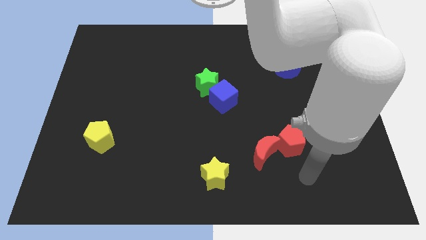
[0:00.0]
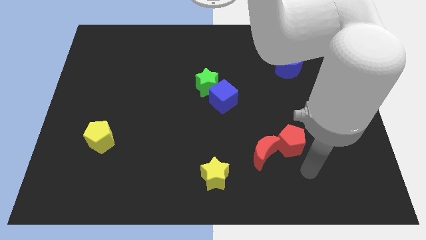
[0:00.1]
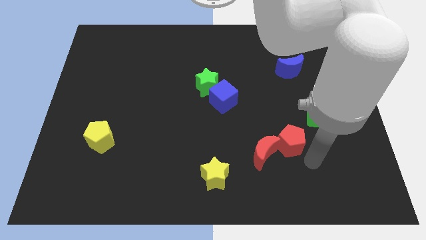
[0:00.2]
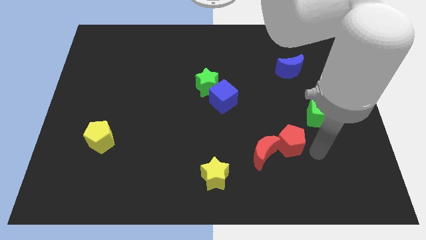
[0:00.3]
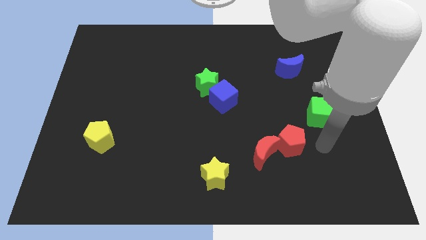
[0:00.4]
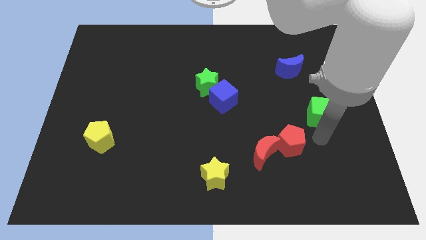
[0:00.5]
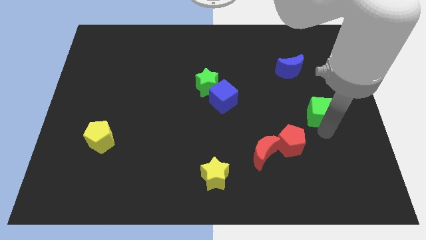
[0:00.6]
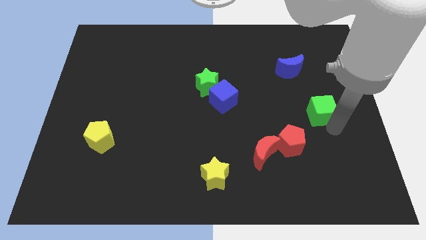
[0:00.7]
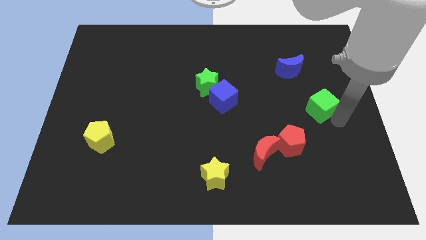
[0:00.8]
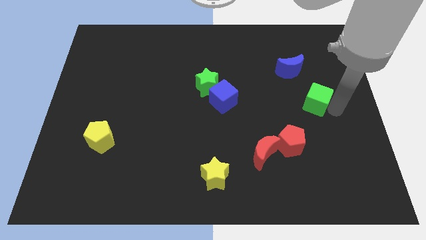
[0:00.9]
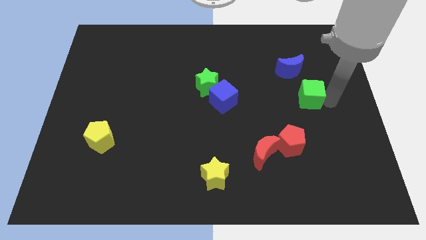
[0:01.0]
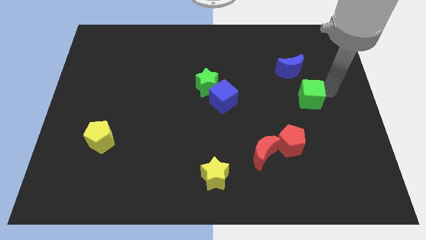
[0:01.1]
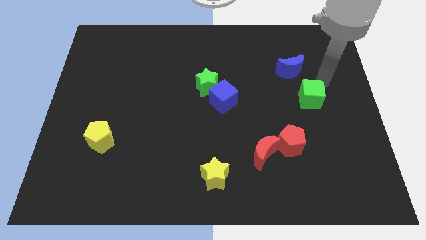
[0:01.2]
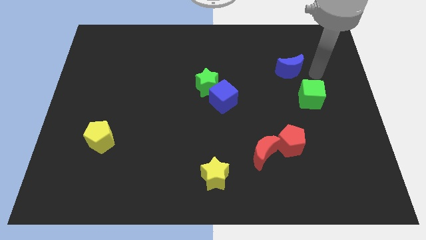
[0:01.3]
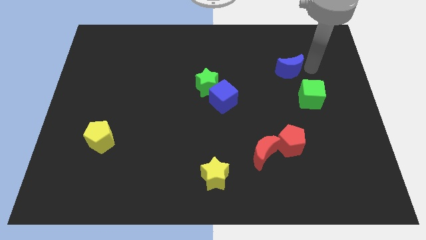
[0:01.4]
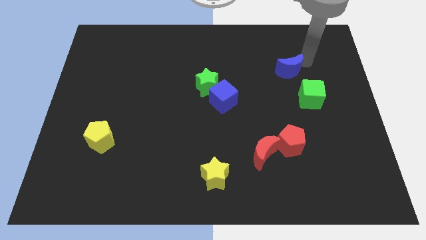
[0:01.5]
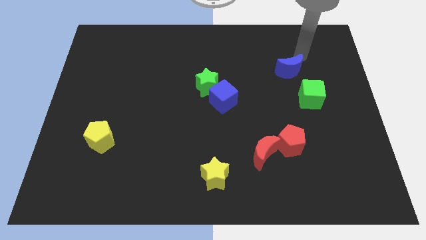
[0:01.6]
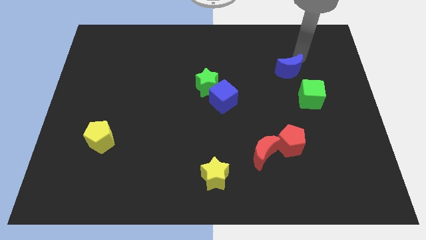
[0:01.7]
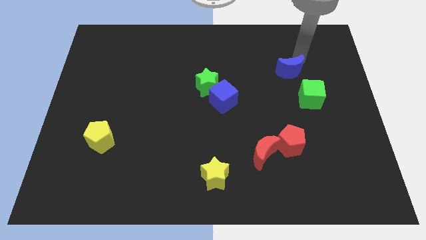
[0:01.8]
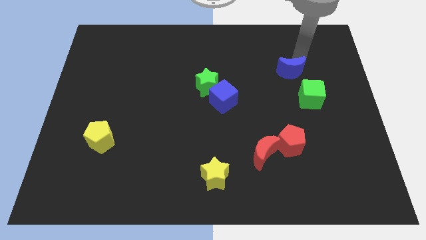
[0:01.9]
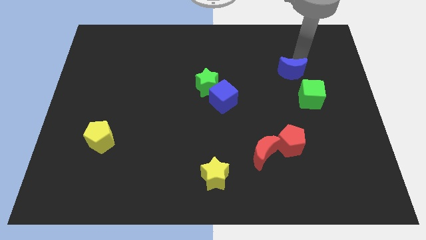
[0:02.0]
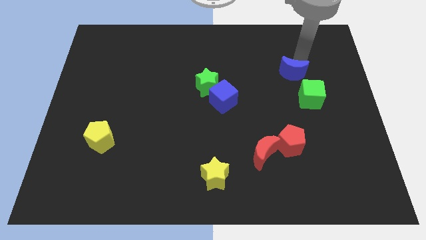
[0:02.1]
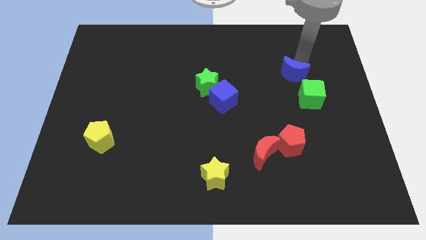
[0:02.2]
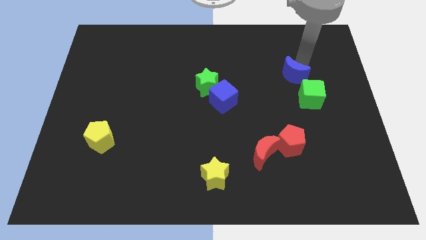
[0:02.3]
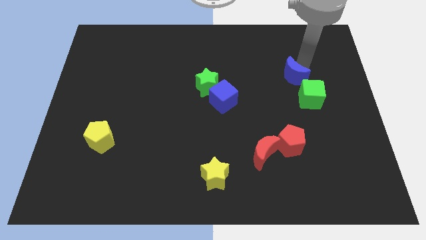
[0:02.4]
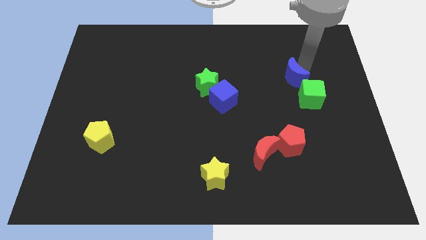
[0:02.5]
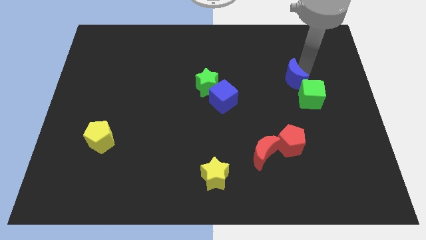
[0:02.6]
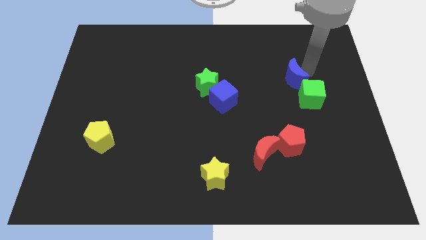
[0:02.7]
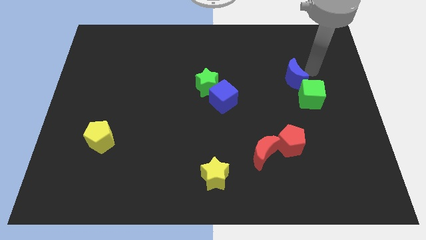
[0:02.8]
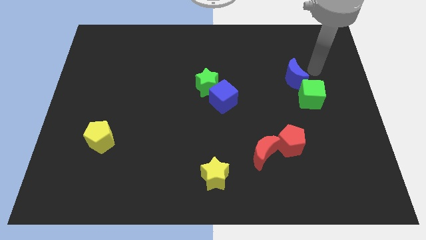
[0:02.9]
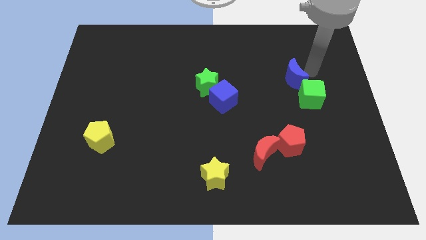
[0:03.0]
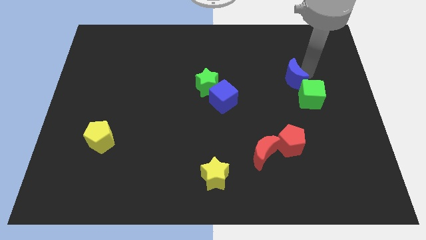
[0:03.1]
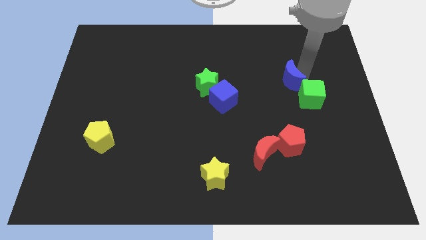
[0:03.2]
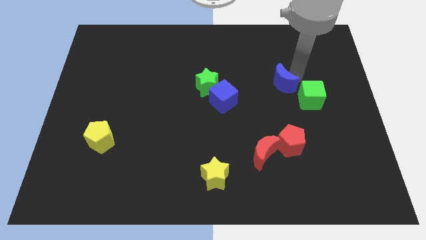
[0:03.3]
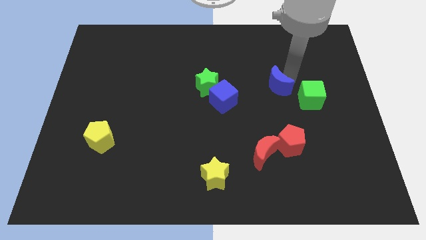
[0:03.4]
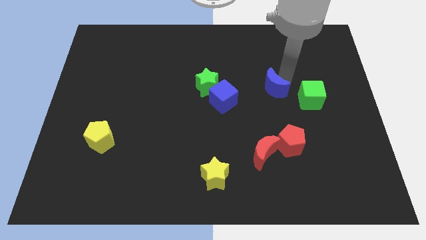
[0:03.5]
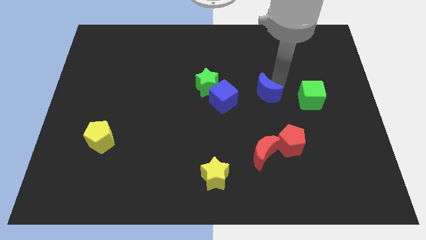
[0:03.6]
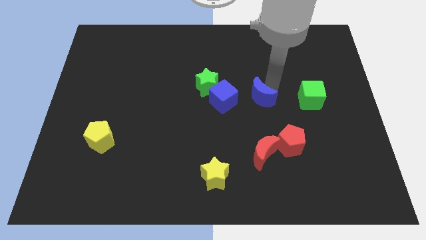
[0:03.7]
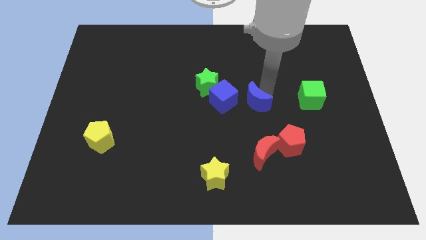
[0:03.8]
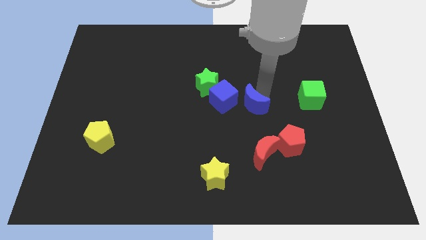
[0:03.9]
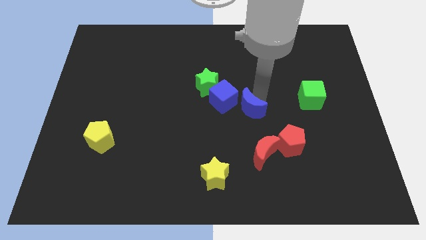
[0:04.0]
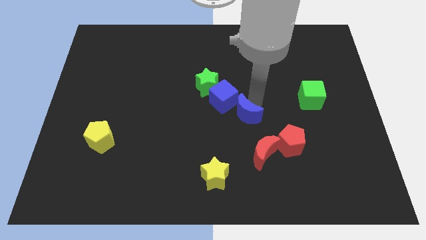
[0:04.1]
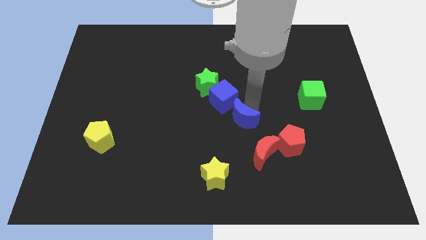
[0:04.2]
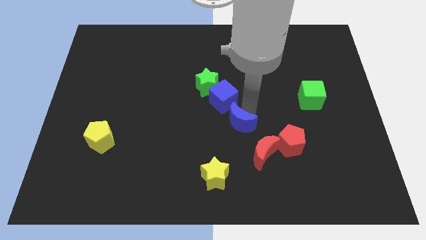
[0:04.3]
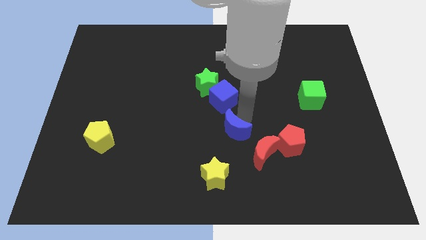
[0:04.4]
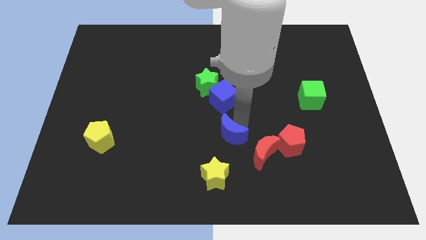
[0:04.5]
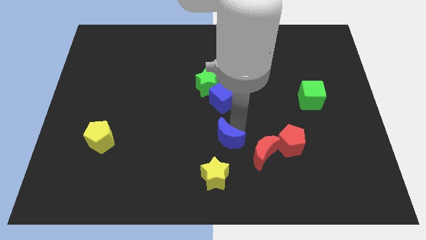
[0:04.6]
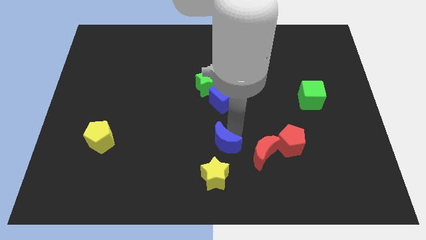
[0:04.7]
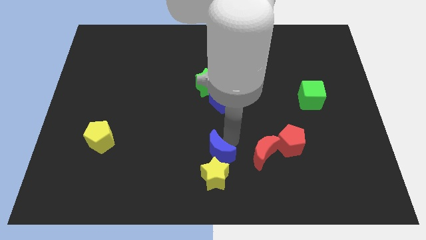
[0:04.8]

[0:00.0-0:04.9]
move the blue moon diagonally up and to the left of the yellow star

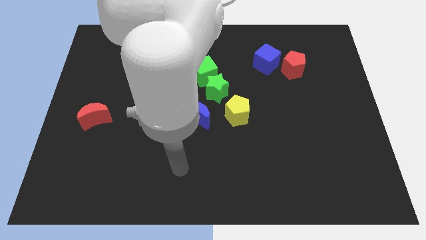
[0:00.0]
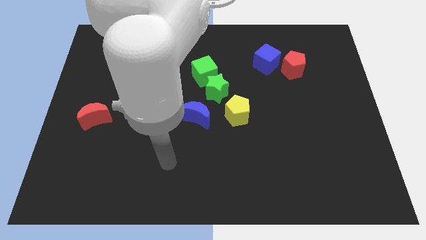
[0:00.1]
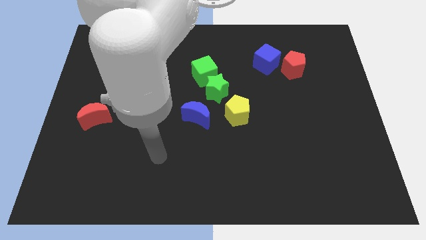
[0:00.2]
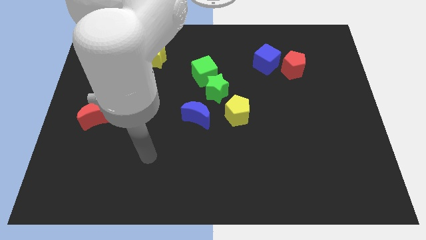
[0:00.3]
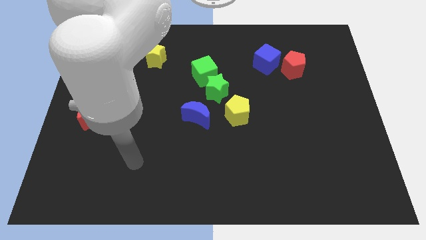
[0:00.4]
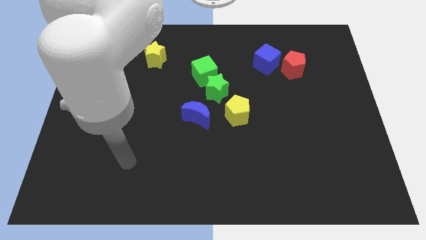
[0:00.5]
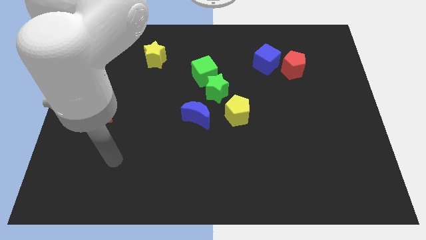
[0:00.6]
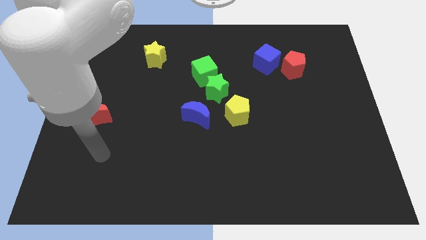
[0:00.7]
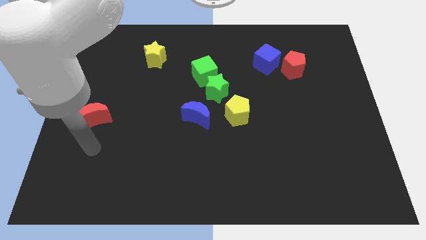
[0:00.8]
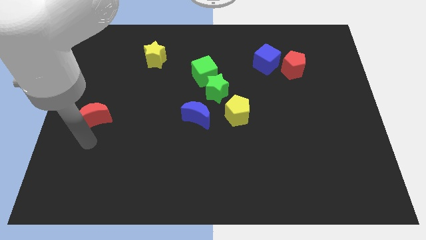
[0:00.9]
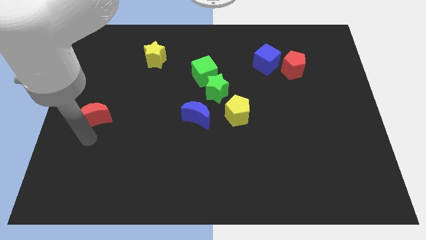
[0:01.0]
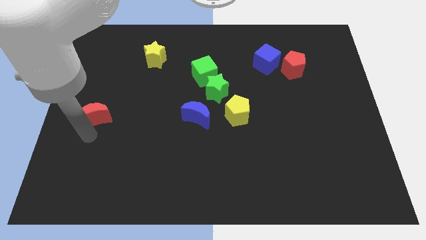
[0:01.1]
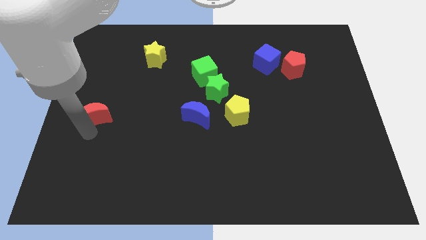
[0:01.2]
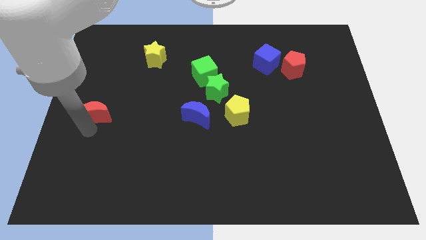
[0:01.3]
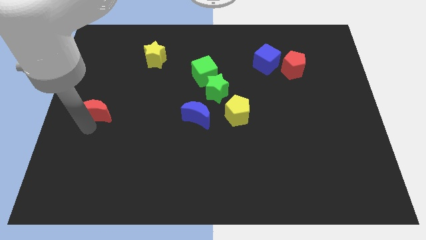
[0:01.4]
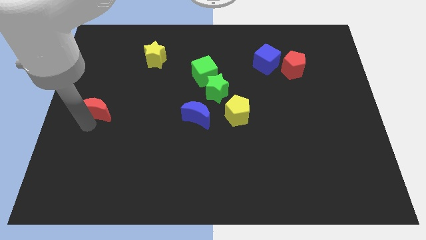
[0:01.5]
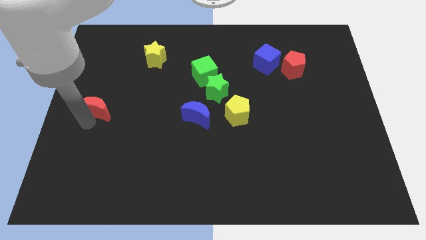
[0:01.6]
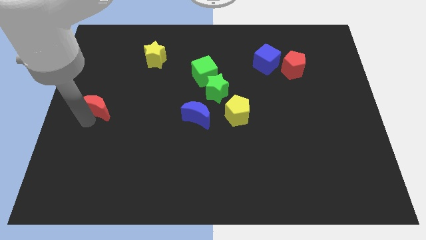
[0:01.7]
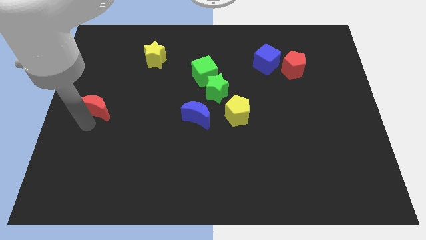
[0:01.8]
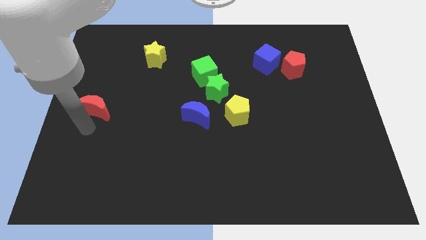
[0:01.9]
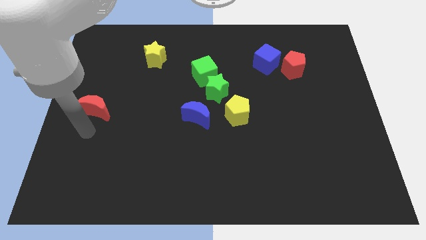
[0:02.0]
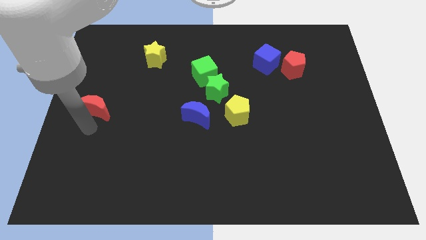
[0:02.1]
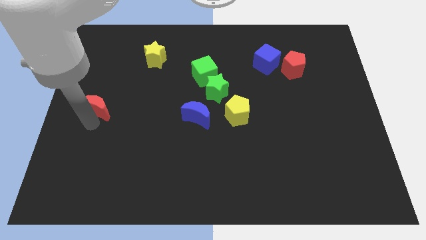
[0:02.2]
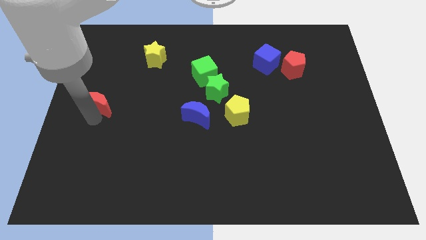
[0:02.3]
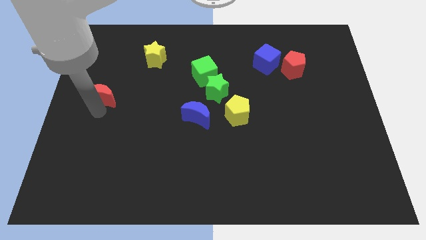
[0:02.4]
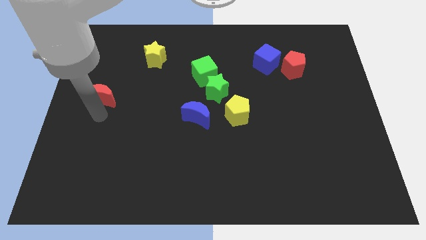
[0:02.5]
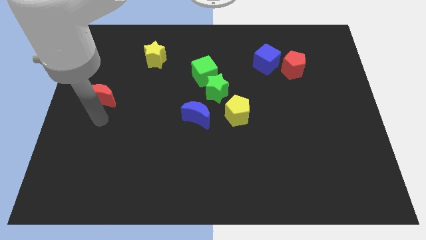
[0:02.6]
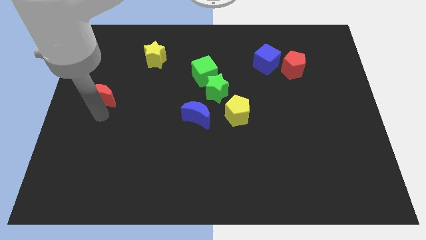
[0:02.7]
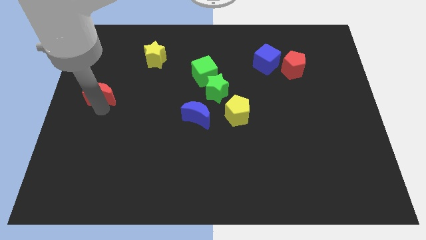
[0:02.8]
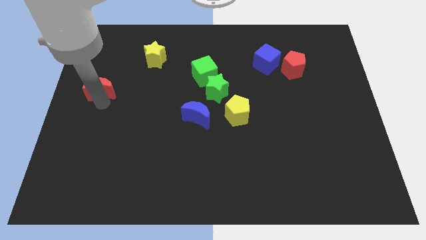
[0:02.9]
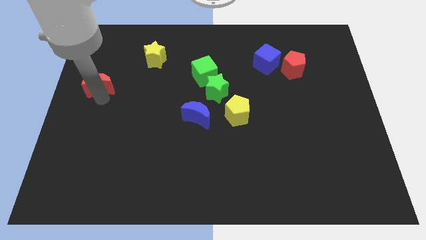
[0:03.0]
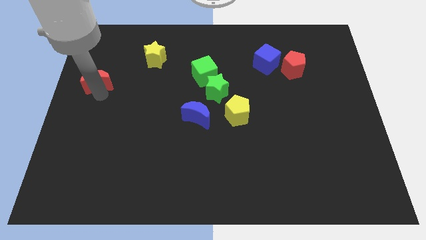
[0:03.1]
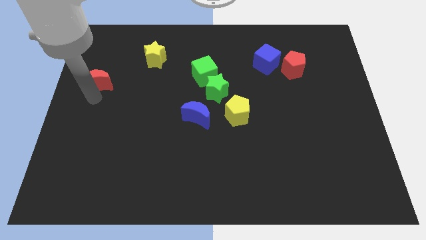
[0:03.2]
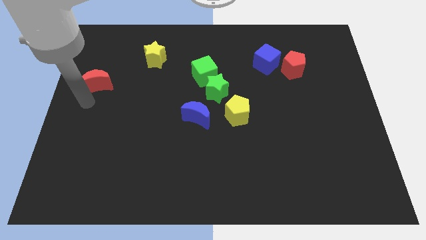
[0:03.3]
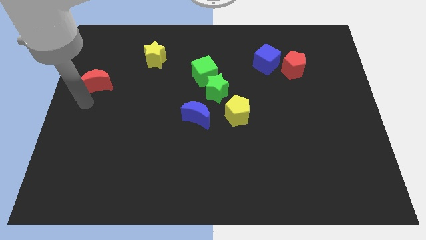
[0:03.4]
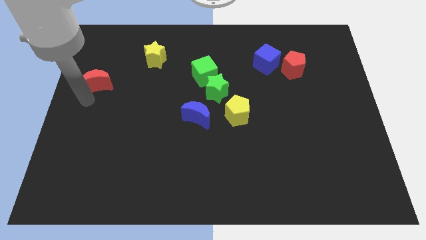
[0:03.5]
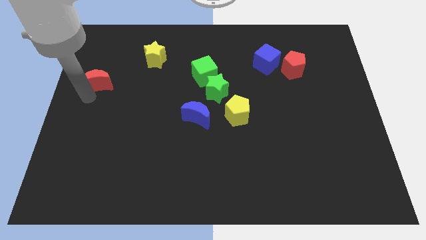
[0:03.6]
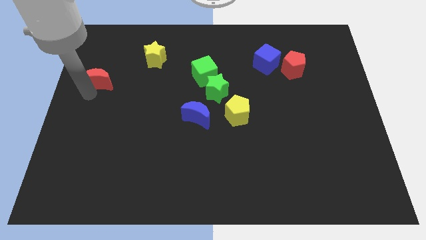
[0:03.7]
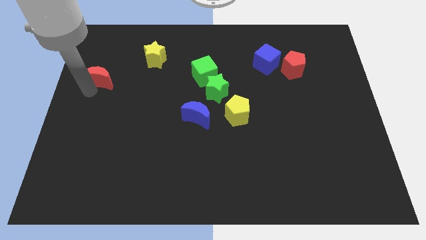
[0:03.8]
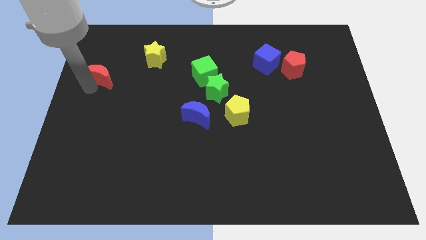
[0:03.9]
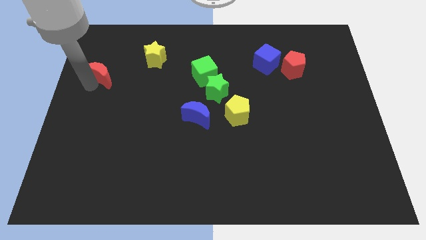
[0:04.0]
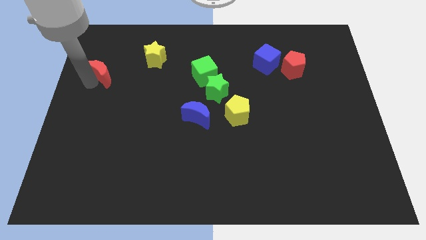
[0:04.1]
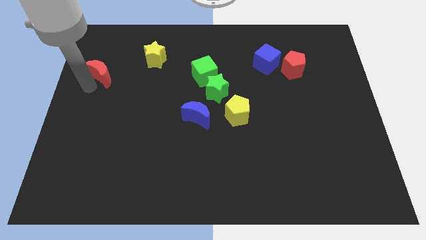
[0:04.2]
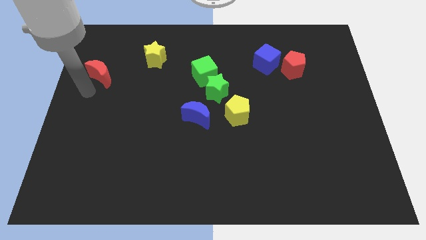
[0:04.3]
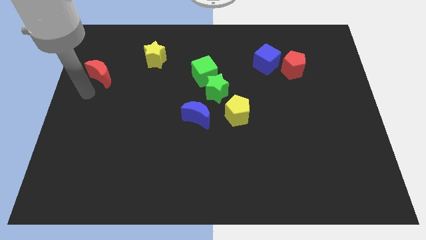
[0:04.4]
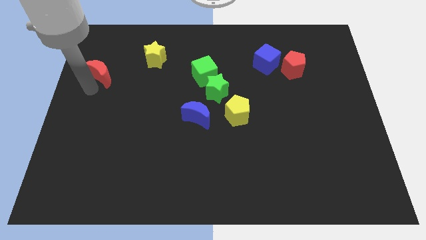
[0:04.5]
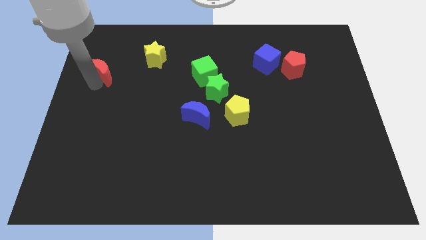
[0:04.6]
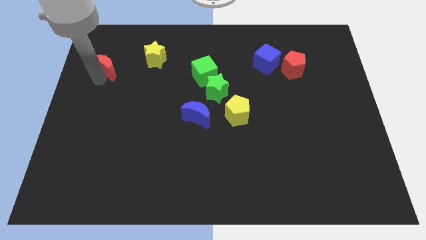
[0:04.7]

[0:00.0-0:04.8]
put the red moon left of the yellow star
